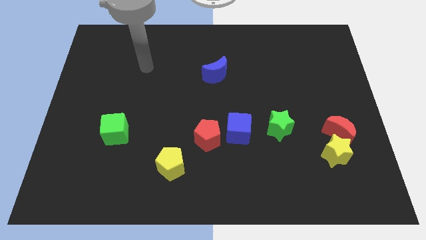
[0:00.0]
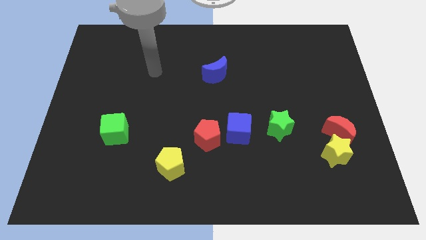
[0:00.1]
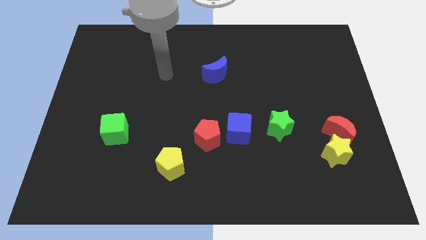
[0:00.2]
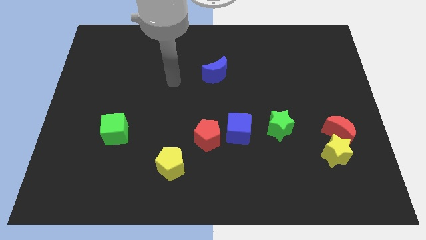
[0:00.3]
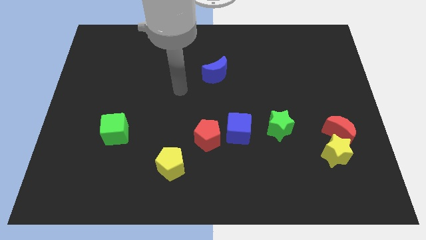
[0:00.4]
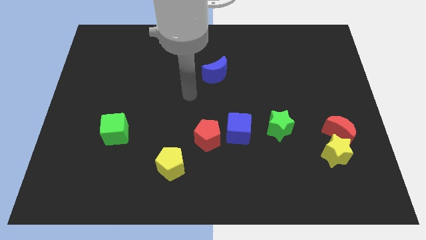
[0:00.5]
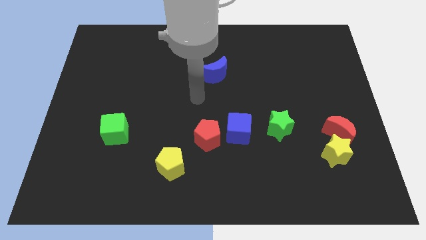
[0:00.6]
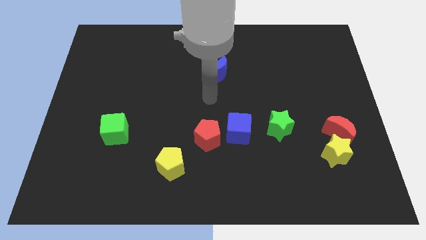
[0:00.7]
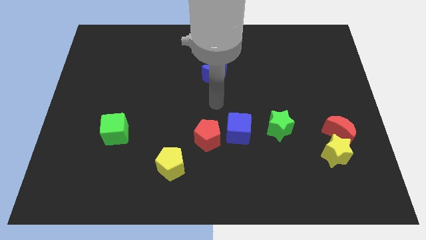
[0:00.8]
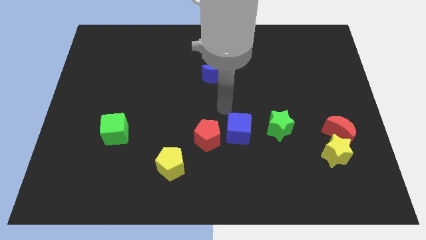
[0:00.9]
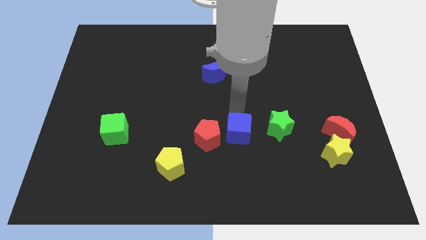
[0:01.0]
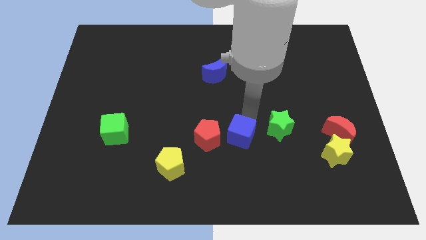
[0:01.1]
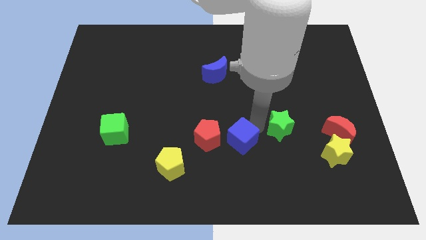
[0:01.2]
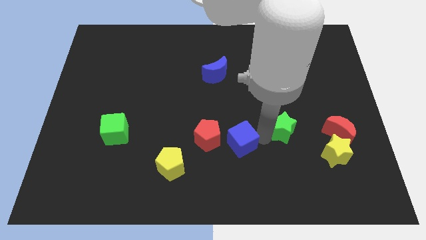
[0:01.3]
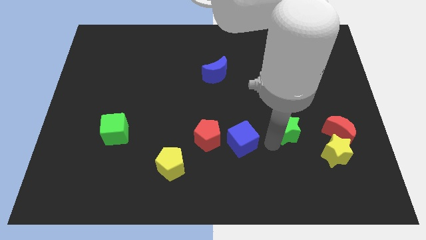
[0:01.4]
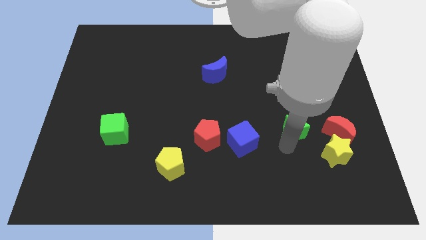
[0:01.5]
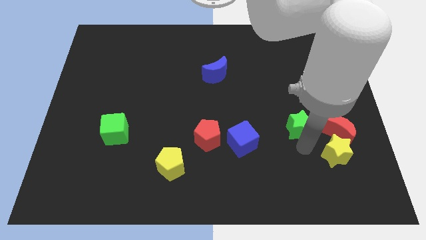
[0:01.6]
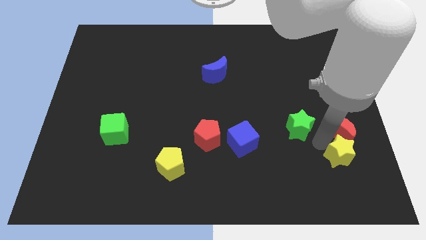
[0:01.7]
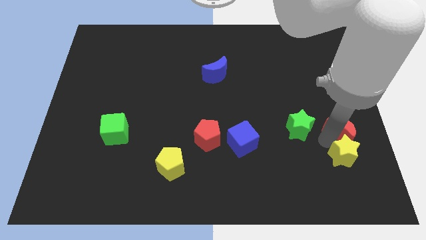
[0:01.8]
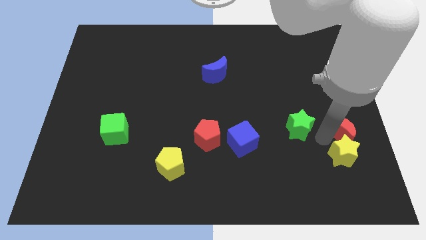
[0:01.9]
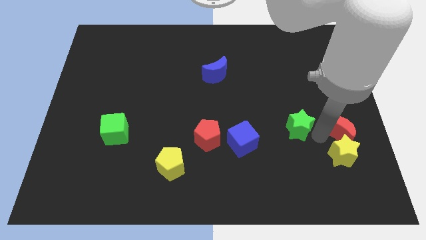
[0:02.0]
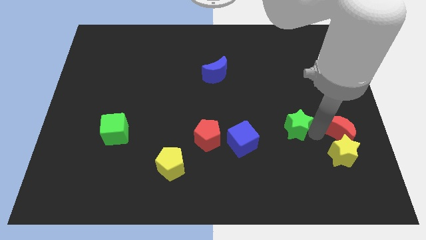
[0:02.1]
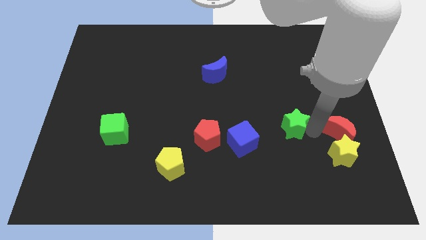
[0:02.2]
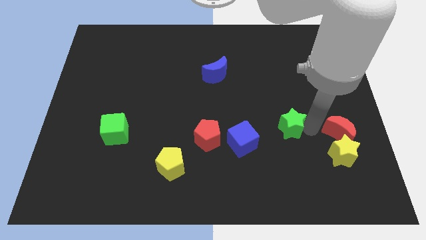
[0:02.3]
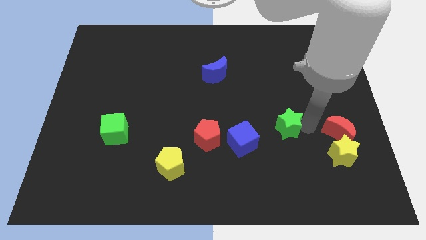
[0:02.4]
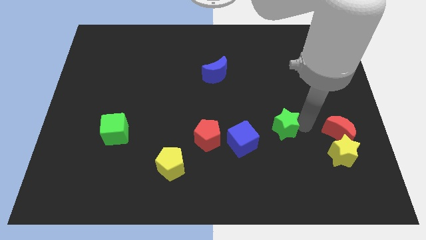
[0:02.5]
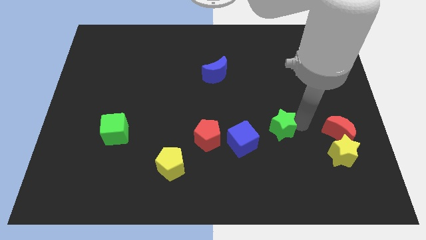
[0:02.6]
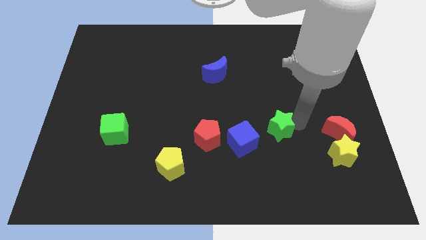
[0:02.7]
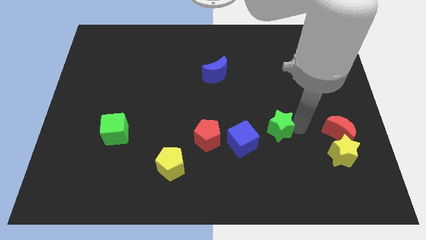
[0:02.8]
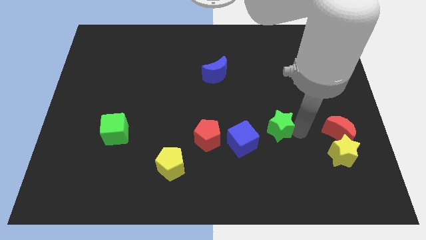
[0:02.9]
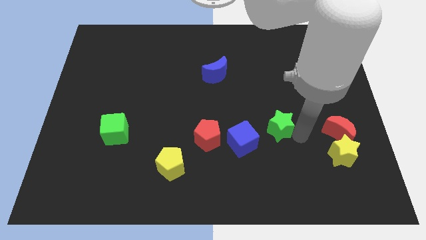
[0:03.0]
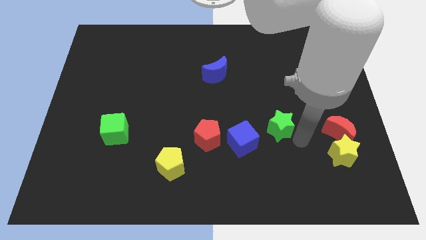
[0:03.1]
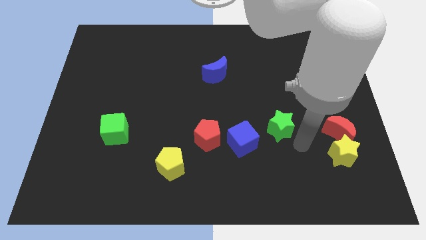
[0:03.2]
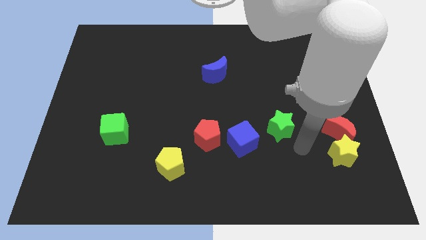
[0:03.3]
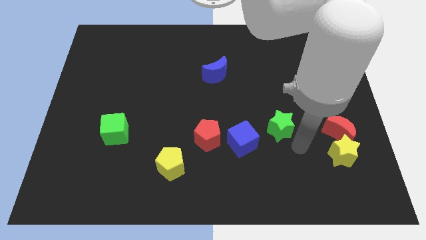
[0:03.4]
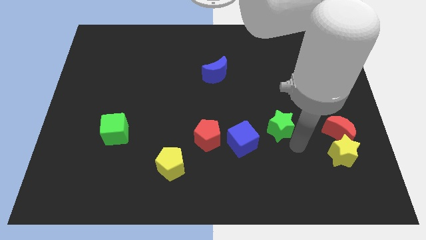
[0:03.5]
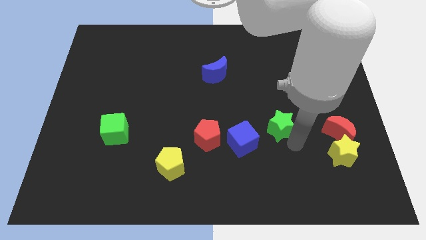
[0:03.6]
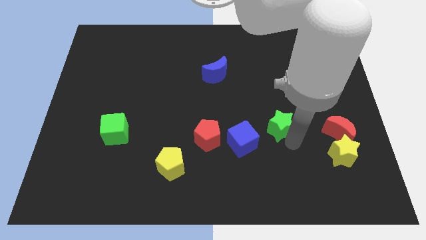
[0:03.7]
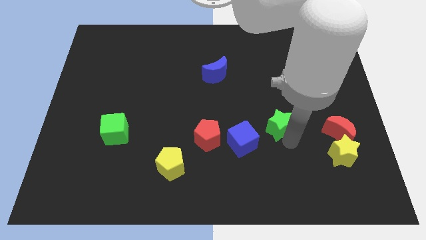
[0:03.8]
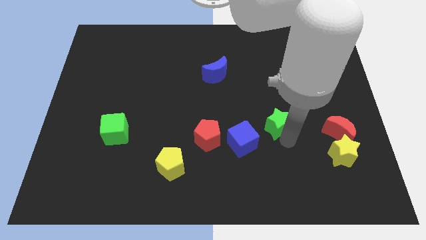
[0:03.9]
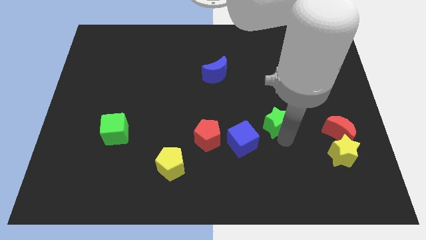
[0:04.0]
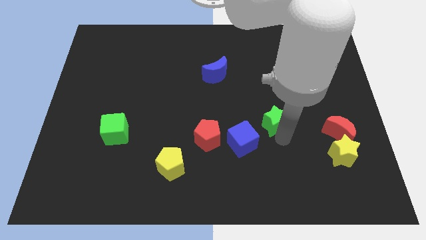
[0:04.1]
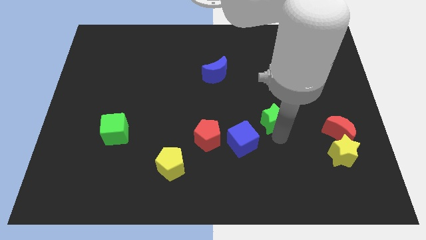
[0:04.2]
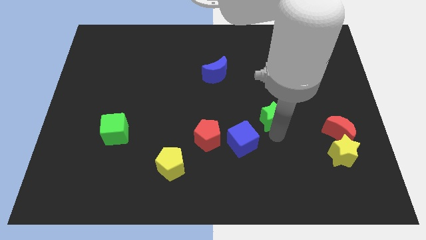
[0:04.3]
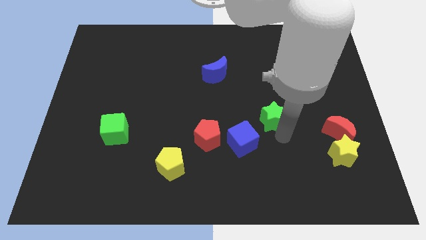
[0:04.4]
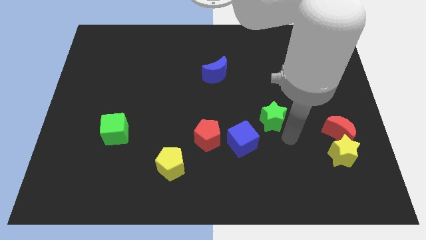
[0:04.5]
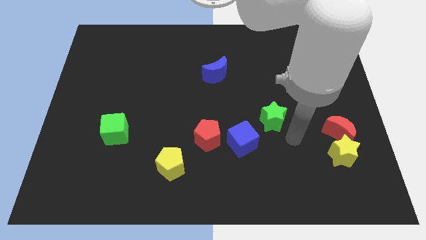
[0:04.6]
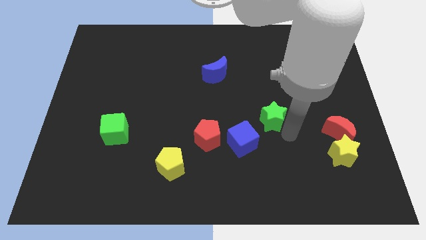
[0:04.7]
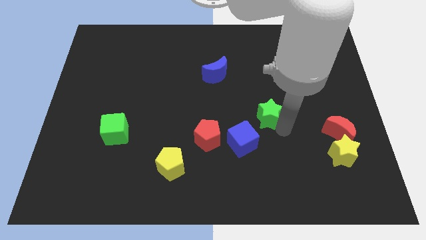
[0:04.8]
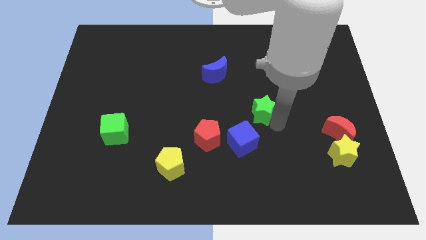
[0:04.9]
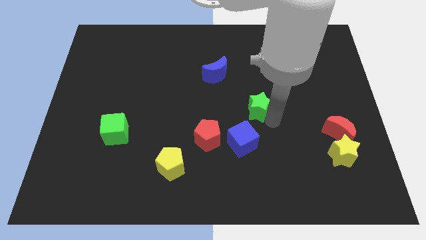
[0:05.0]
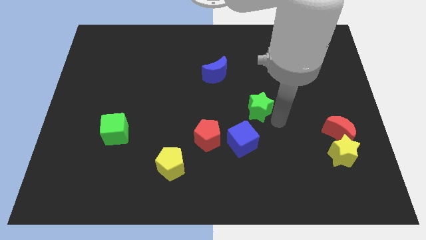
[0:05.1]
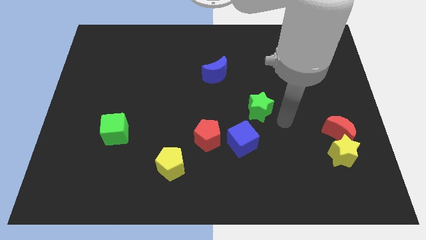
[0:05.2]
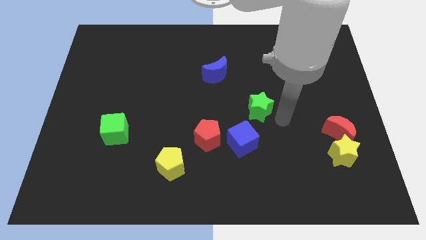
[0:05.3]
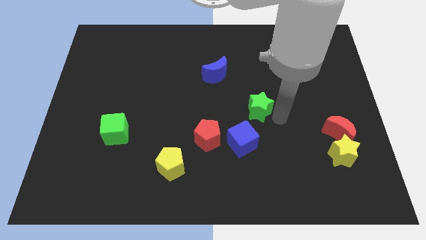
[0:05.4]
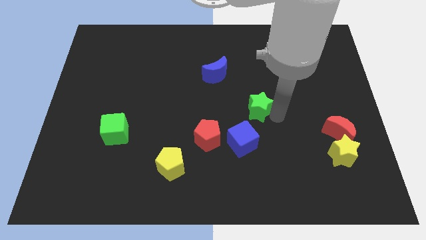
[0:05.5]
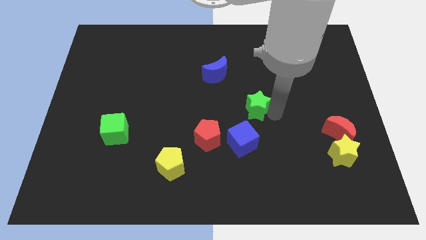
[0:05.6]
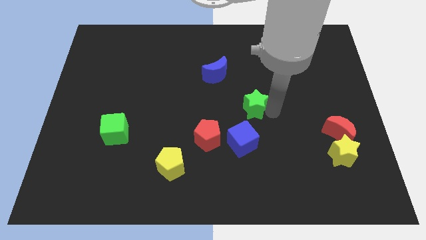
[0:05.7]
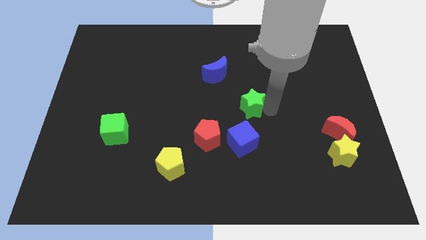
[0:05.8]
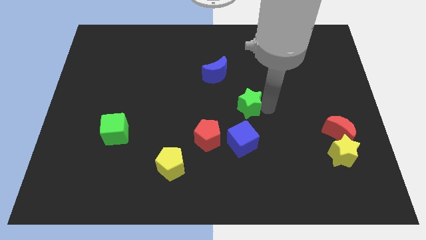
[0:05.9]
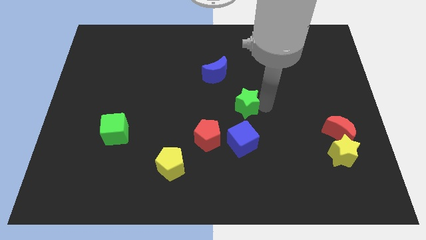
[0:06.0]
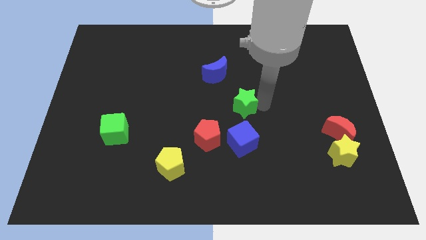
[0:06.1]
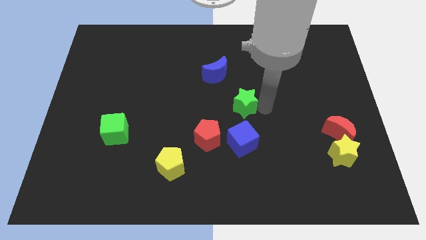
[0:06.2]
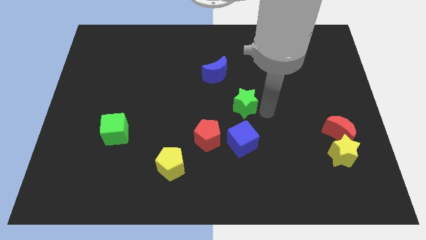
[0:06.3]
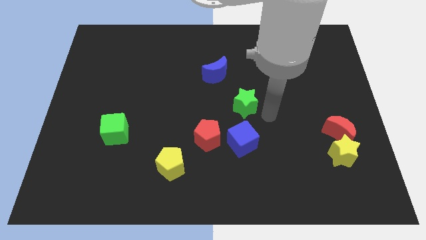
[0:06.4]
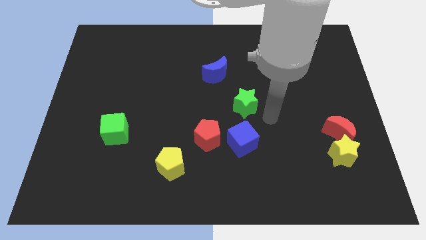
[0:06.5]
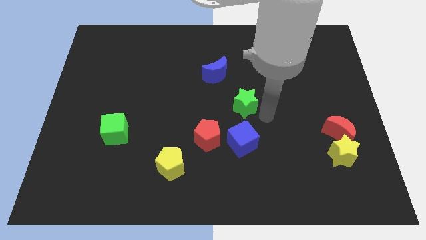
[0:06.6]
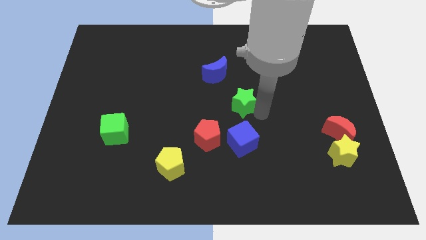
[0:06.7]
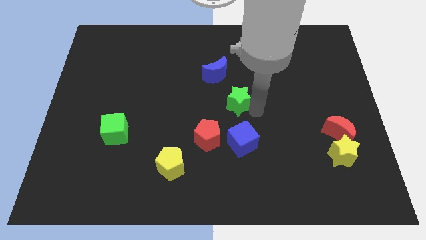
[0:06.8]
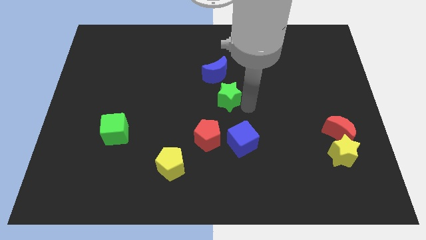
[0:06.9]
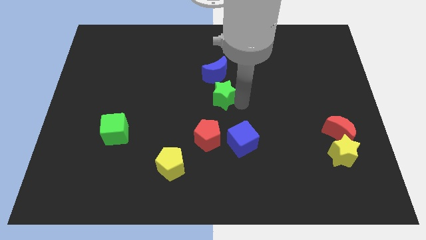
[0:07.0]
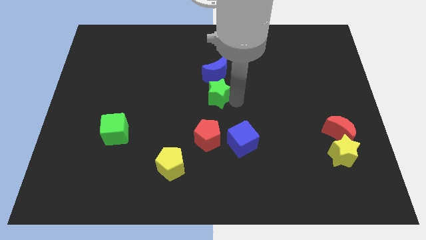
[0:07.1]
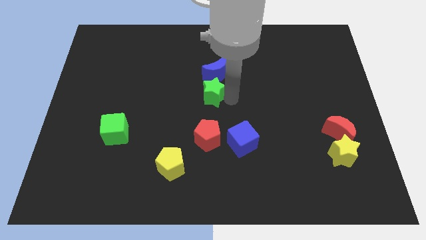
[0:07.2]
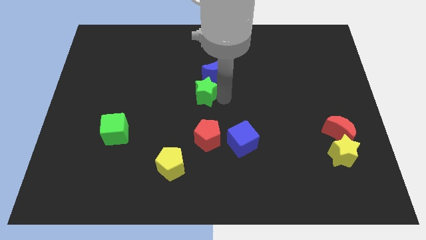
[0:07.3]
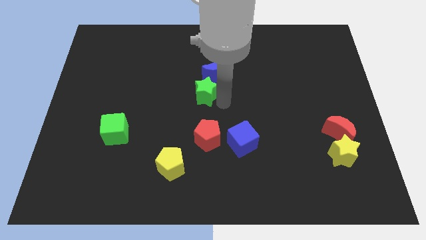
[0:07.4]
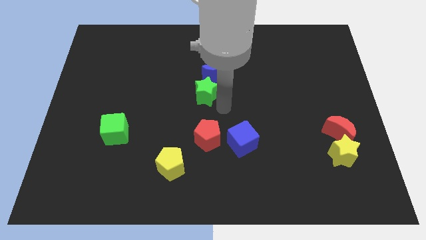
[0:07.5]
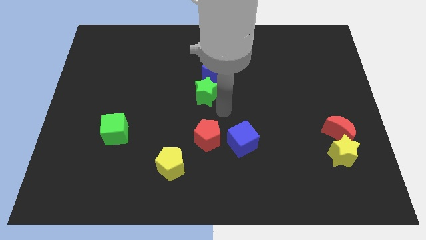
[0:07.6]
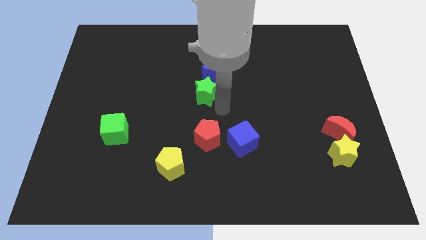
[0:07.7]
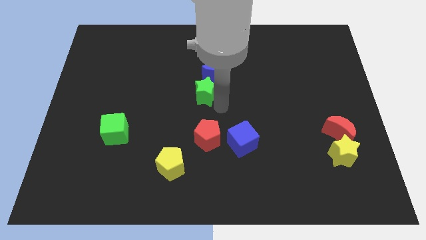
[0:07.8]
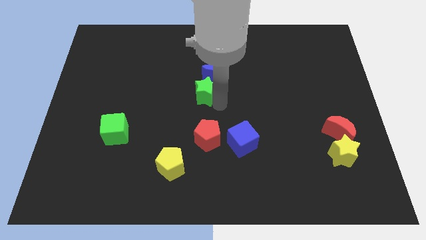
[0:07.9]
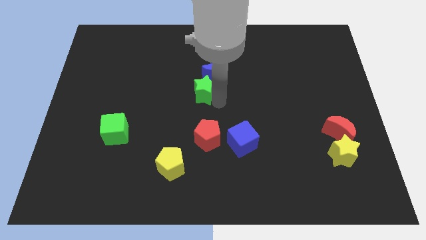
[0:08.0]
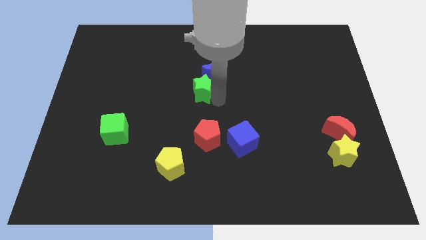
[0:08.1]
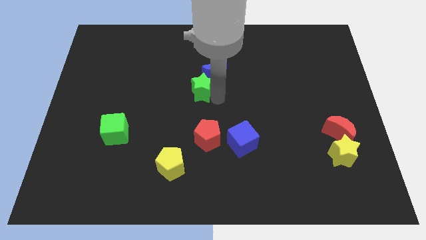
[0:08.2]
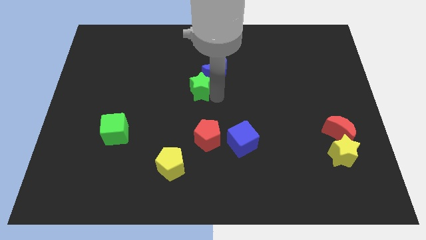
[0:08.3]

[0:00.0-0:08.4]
slide the green star upwards and to the left diagonally
